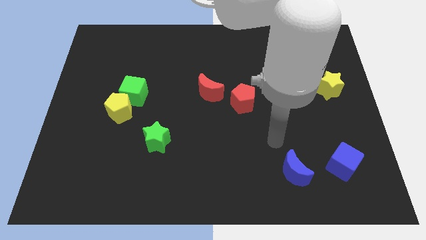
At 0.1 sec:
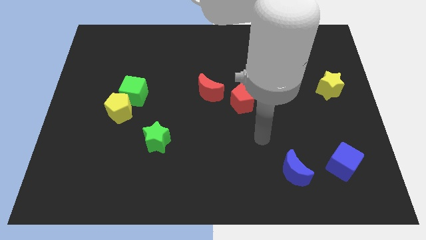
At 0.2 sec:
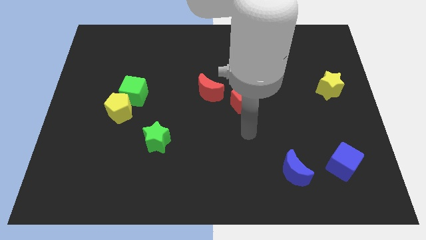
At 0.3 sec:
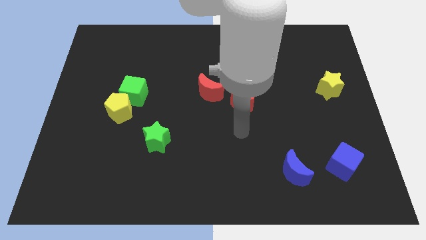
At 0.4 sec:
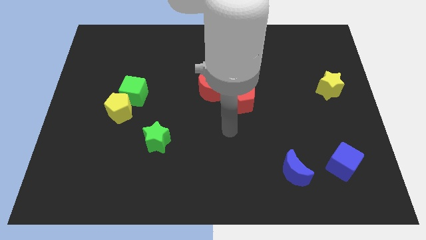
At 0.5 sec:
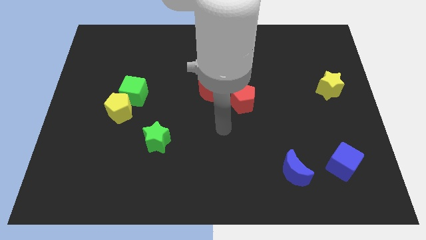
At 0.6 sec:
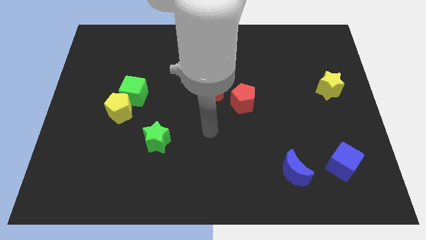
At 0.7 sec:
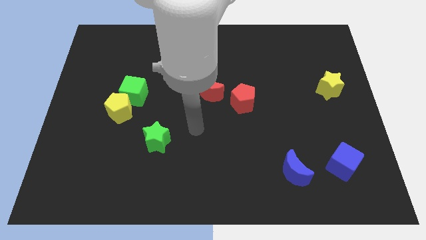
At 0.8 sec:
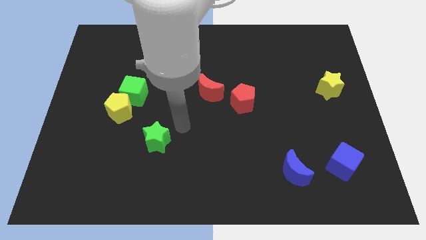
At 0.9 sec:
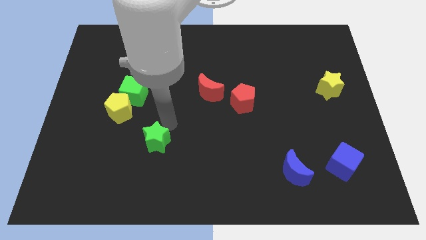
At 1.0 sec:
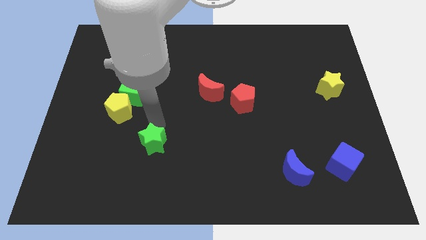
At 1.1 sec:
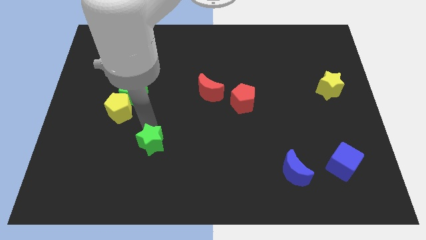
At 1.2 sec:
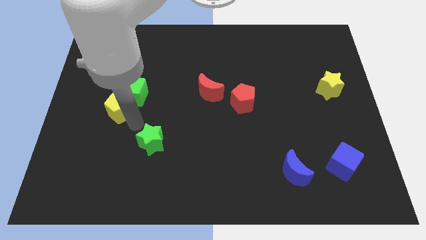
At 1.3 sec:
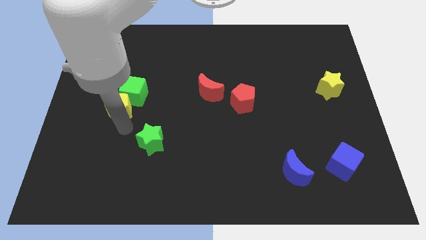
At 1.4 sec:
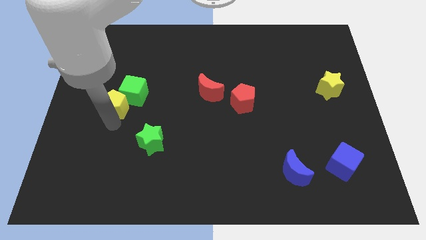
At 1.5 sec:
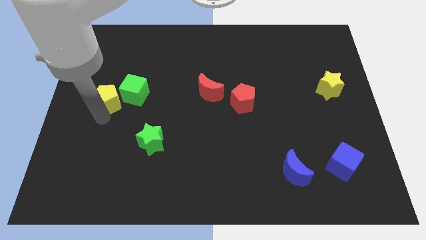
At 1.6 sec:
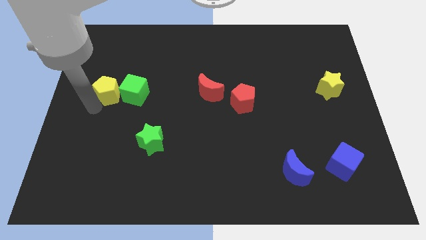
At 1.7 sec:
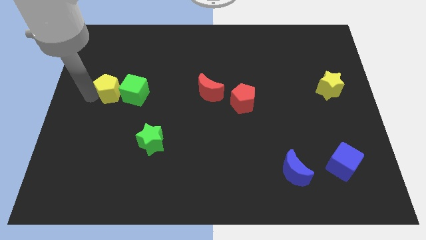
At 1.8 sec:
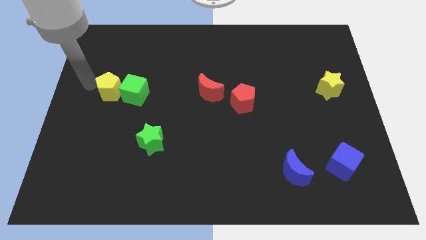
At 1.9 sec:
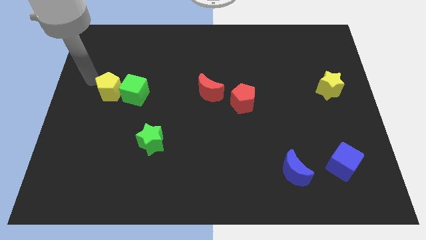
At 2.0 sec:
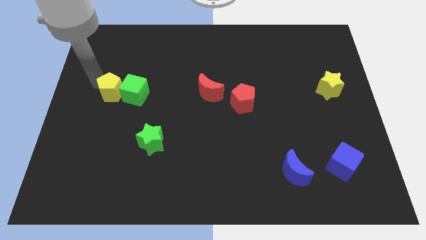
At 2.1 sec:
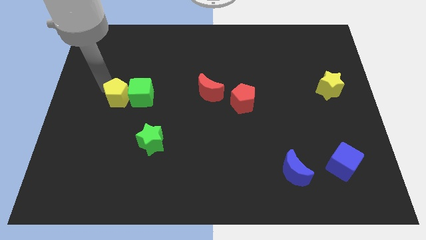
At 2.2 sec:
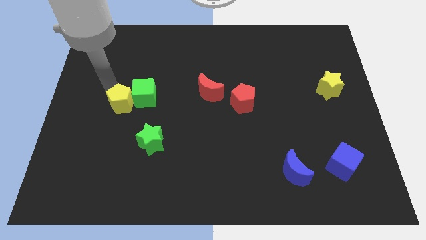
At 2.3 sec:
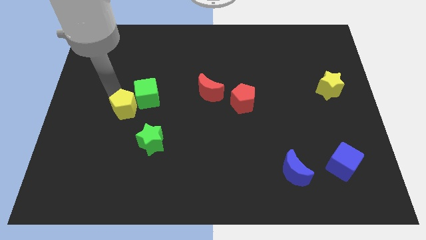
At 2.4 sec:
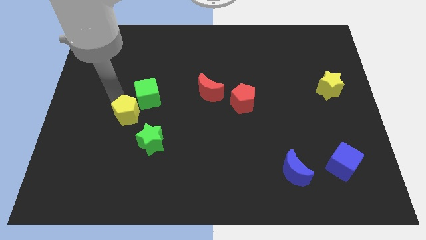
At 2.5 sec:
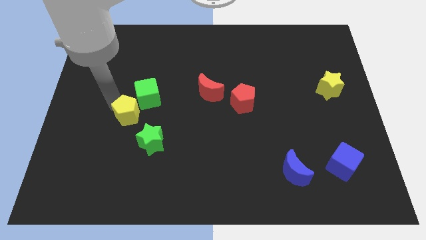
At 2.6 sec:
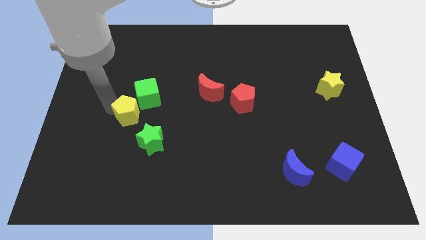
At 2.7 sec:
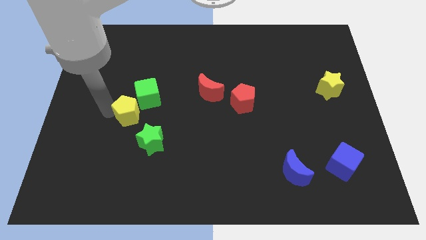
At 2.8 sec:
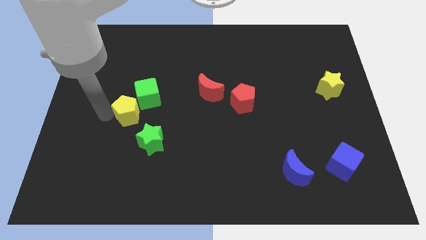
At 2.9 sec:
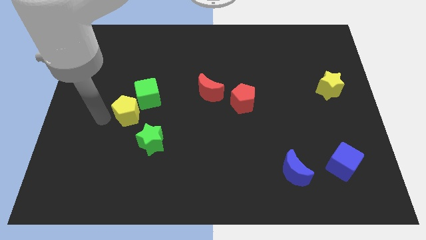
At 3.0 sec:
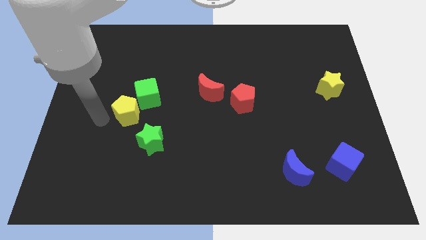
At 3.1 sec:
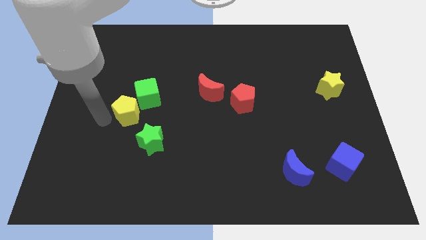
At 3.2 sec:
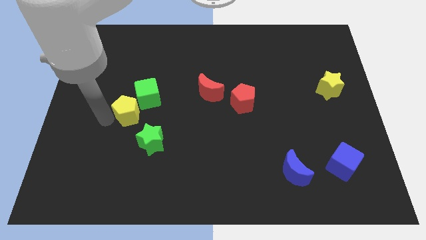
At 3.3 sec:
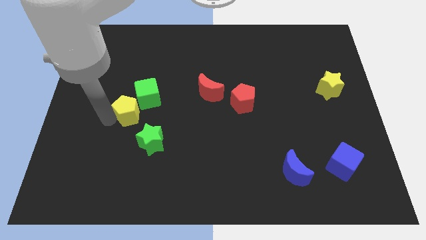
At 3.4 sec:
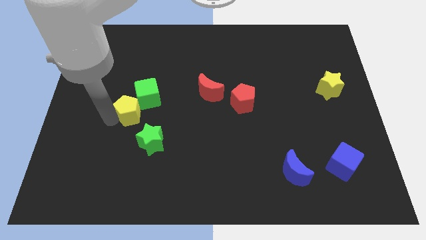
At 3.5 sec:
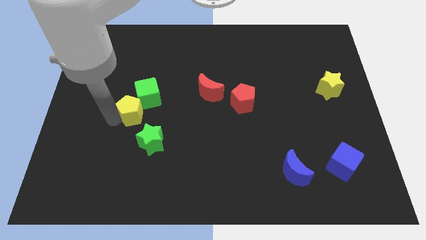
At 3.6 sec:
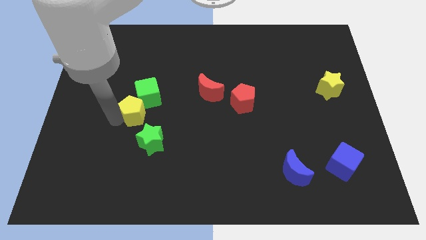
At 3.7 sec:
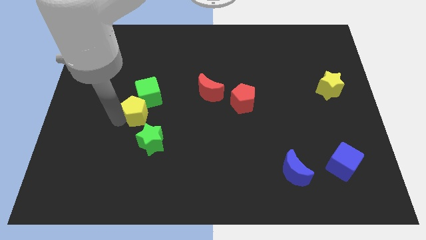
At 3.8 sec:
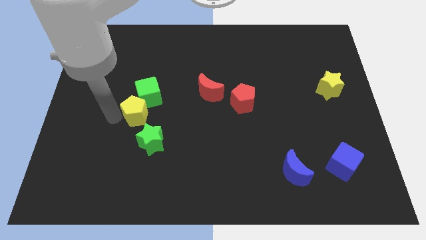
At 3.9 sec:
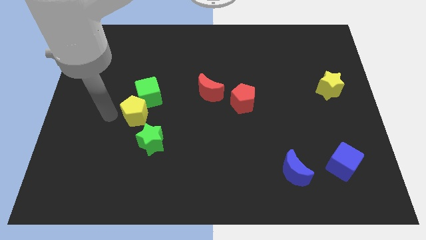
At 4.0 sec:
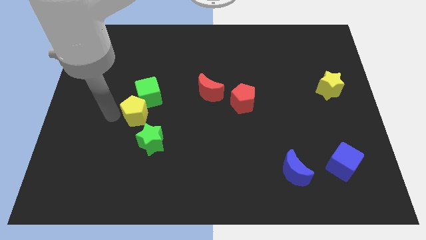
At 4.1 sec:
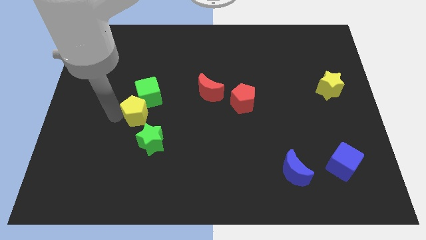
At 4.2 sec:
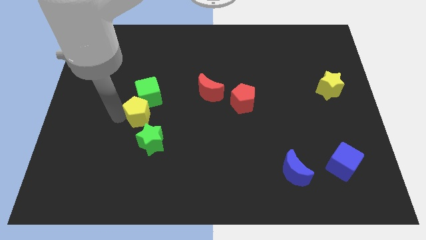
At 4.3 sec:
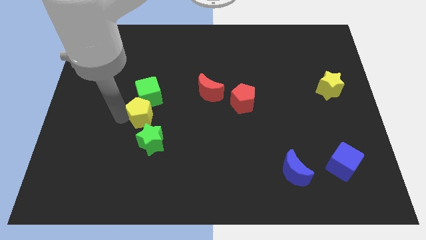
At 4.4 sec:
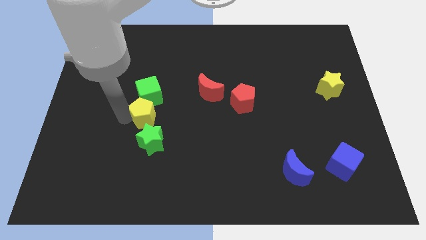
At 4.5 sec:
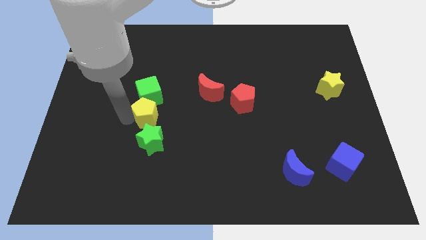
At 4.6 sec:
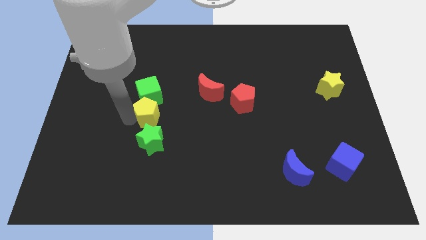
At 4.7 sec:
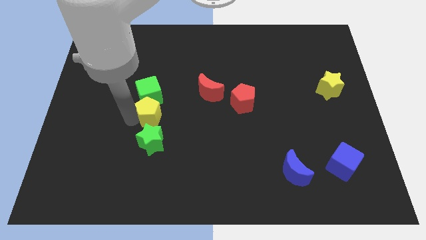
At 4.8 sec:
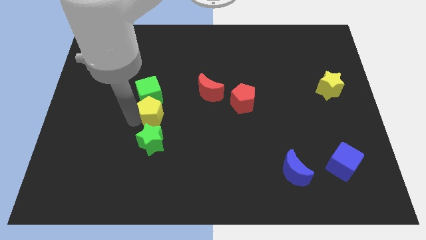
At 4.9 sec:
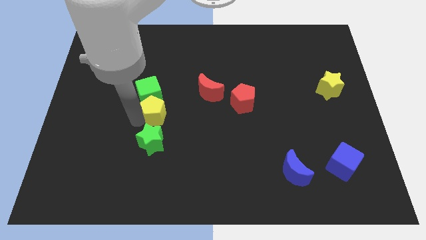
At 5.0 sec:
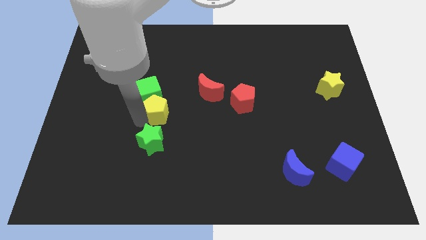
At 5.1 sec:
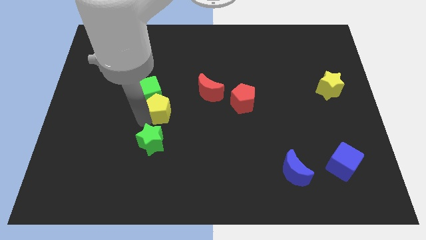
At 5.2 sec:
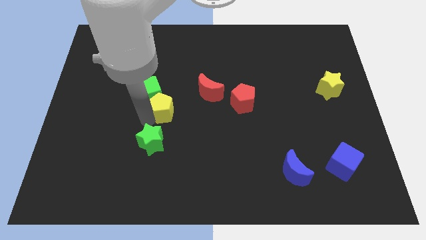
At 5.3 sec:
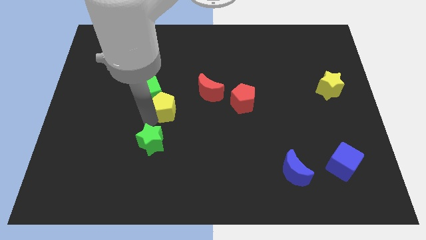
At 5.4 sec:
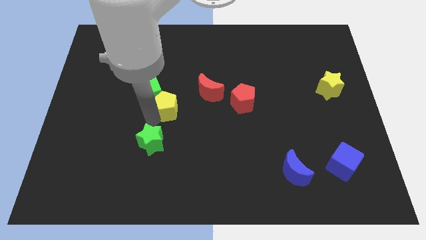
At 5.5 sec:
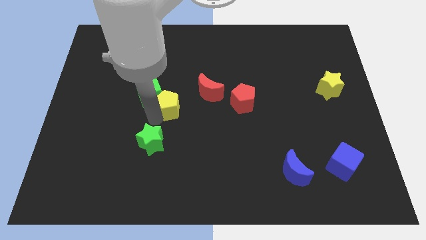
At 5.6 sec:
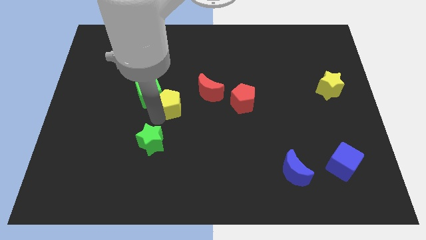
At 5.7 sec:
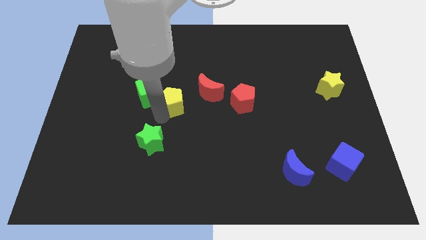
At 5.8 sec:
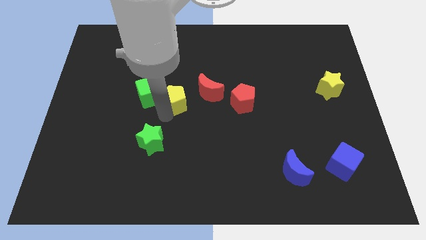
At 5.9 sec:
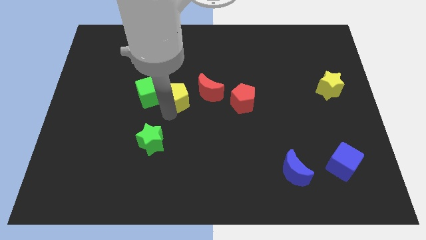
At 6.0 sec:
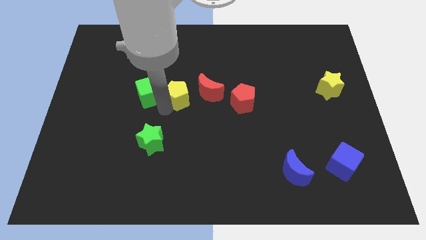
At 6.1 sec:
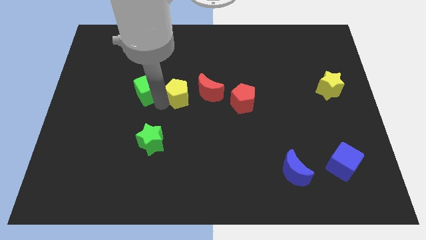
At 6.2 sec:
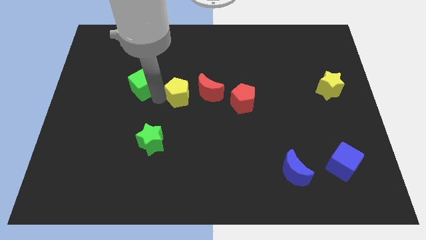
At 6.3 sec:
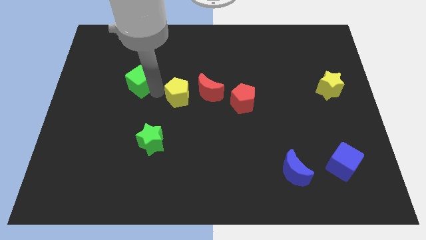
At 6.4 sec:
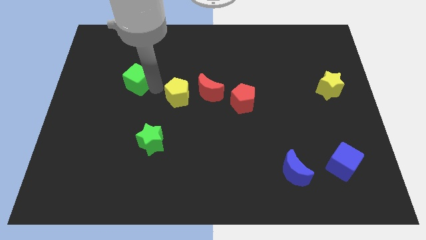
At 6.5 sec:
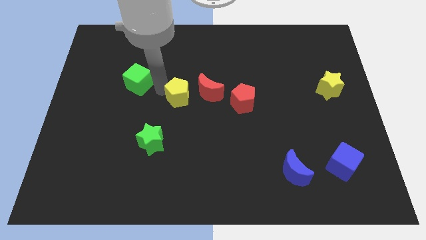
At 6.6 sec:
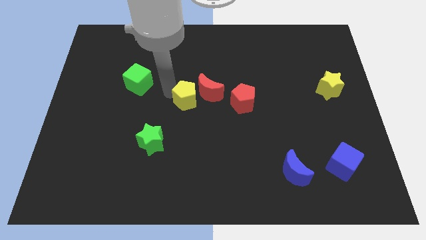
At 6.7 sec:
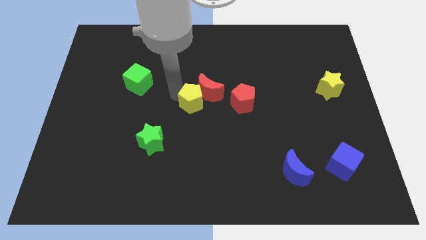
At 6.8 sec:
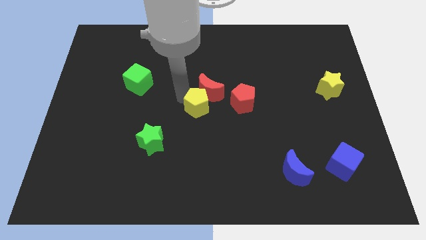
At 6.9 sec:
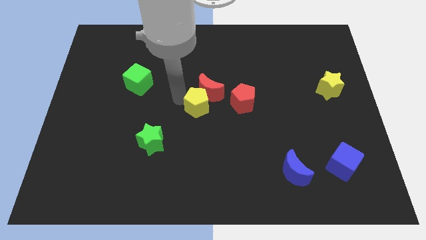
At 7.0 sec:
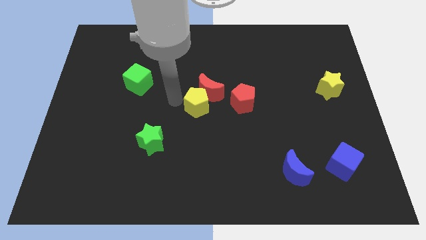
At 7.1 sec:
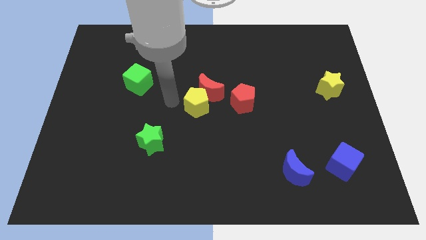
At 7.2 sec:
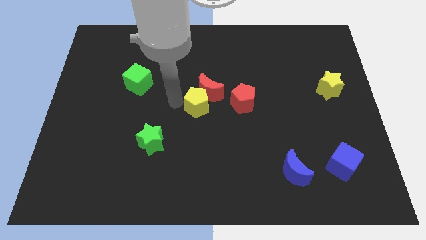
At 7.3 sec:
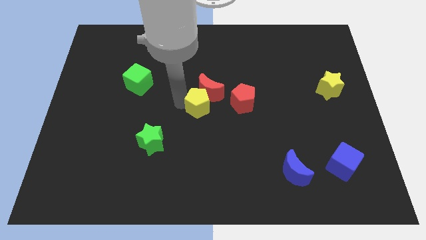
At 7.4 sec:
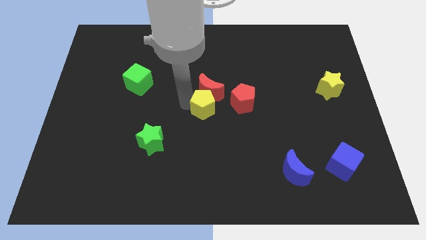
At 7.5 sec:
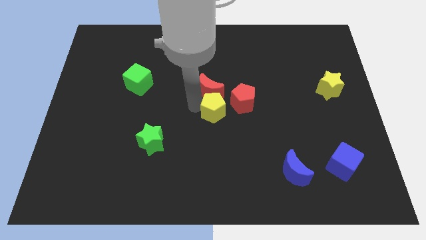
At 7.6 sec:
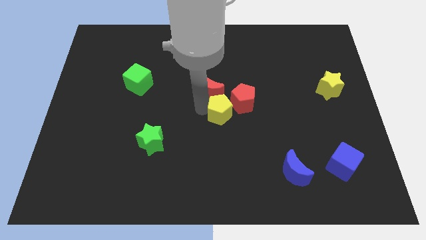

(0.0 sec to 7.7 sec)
put the yellow pentagon towards the red pentagon
